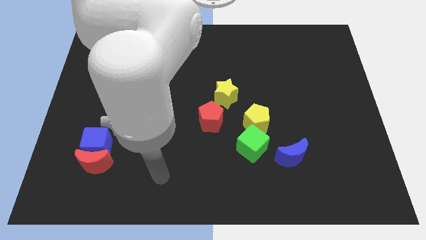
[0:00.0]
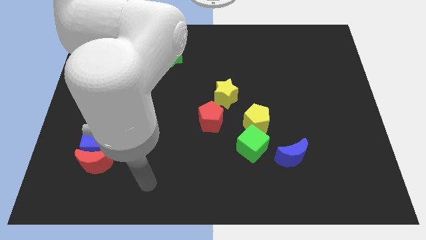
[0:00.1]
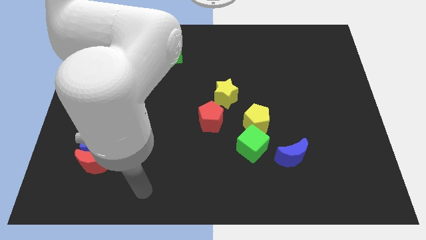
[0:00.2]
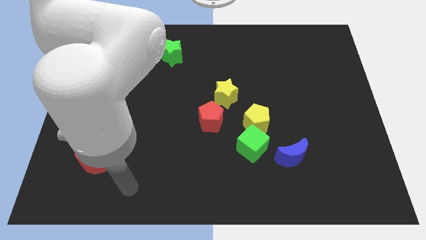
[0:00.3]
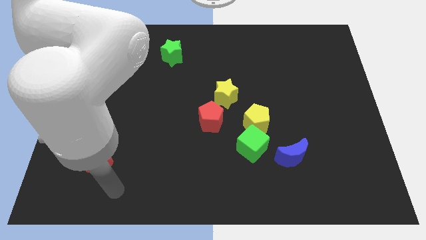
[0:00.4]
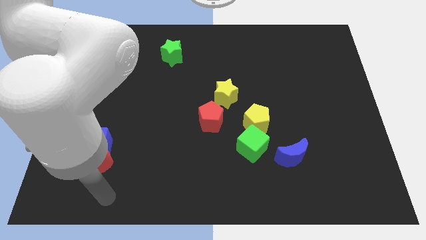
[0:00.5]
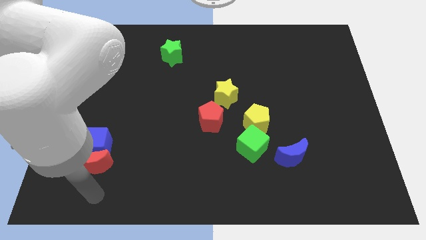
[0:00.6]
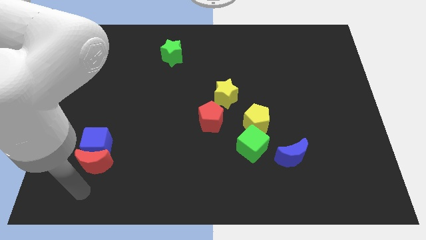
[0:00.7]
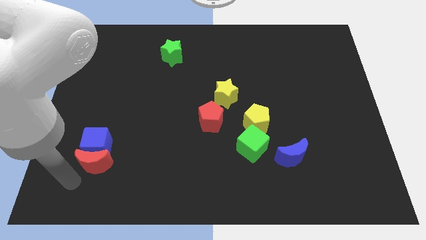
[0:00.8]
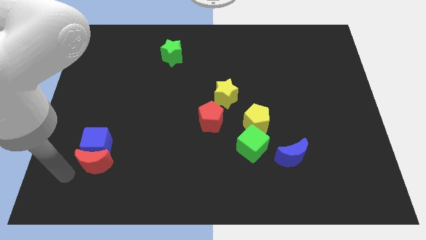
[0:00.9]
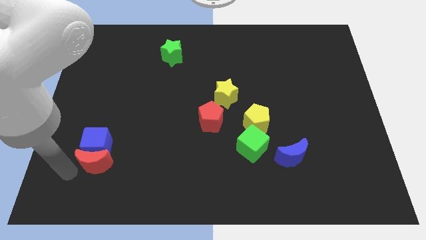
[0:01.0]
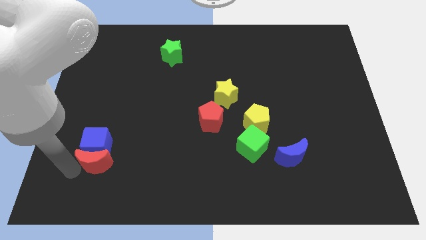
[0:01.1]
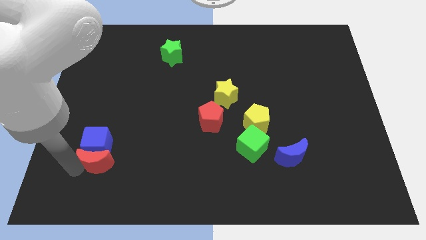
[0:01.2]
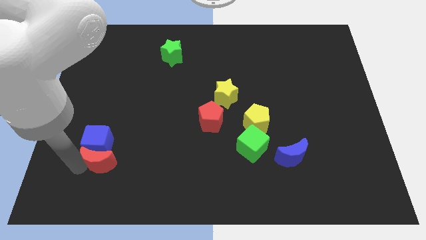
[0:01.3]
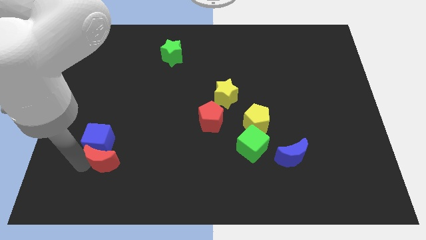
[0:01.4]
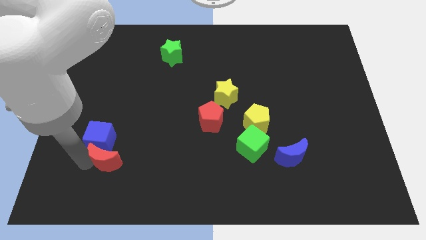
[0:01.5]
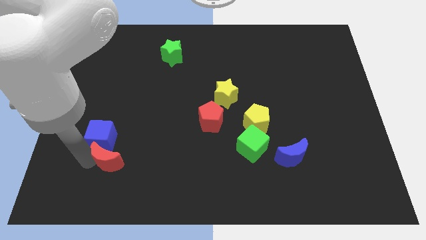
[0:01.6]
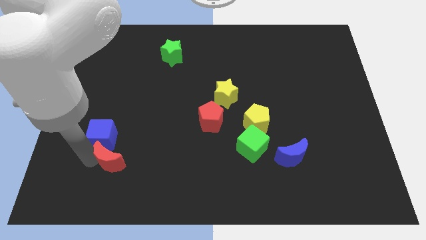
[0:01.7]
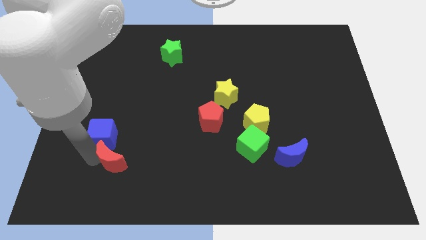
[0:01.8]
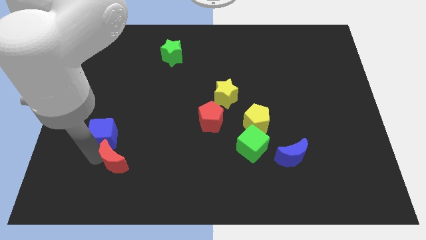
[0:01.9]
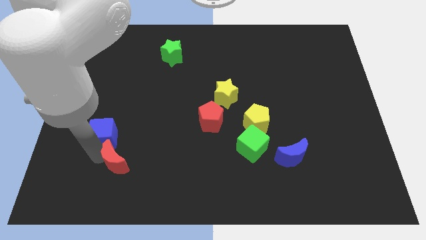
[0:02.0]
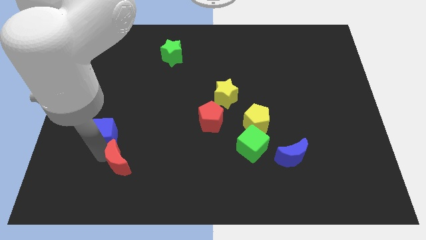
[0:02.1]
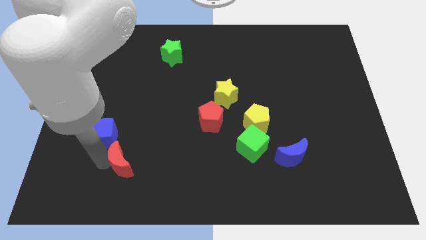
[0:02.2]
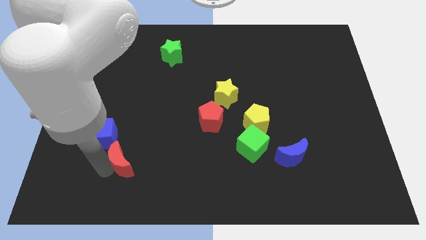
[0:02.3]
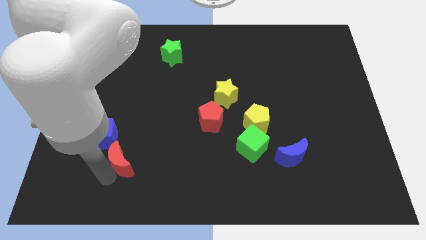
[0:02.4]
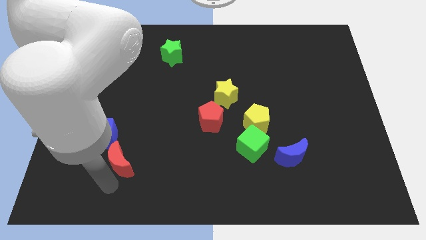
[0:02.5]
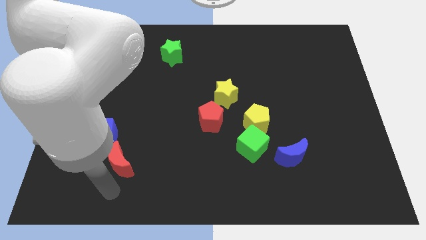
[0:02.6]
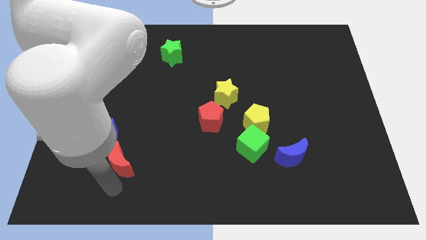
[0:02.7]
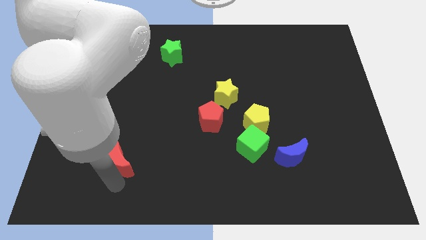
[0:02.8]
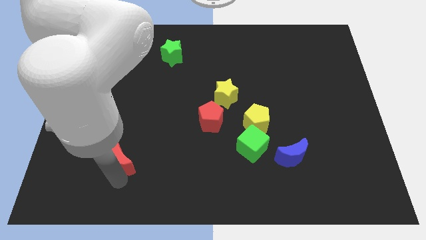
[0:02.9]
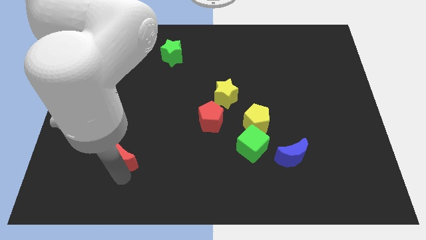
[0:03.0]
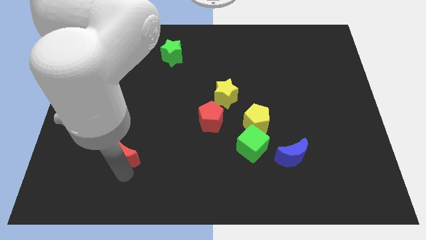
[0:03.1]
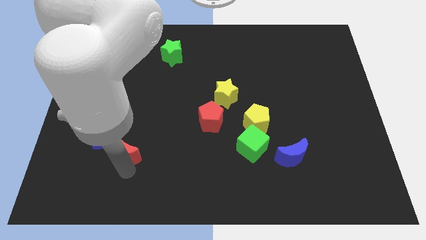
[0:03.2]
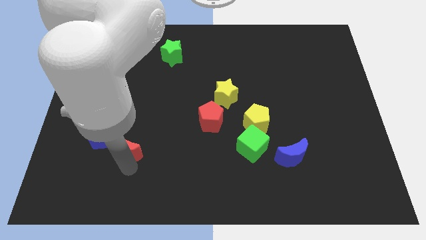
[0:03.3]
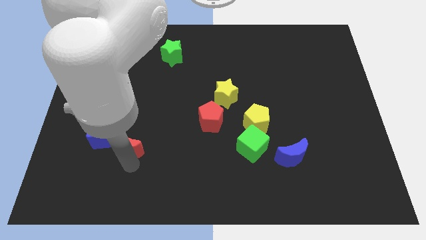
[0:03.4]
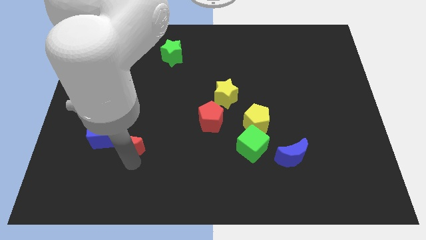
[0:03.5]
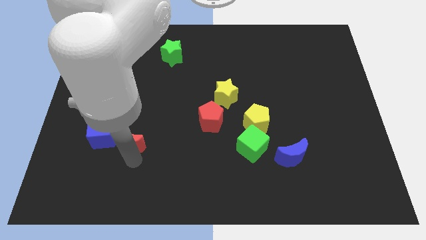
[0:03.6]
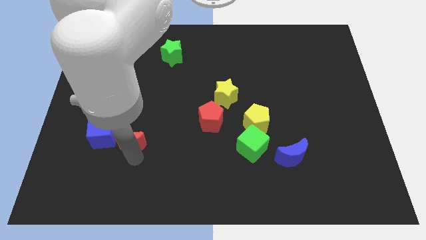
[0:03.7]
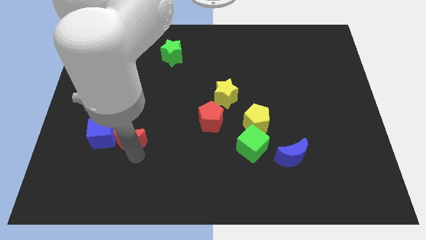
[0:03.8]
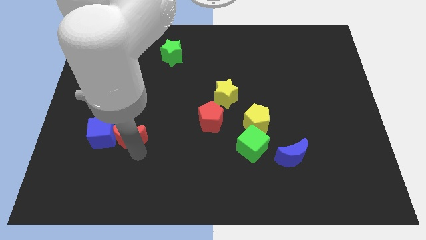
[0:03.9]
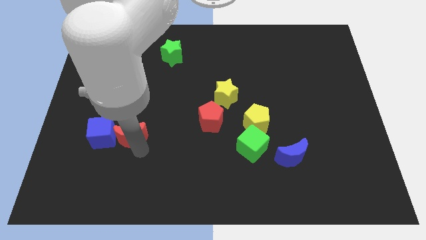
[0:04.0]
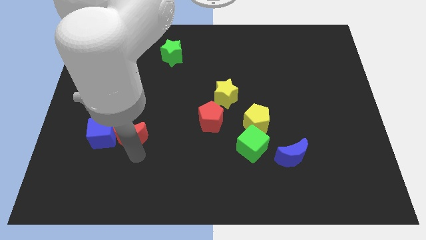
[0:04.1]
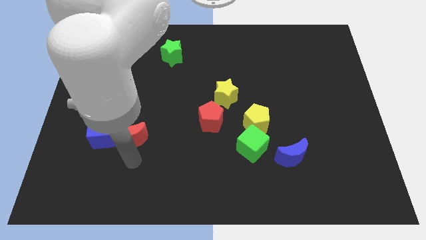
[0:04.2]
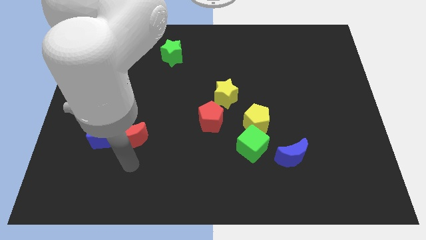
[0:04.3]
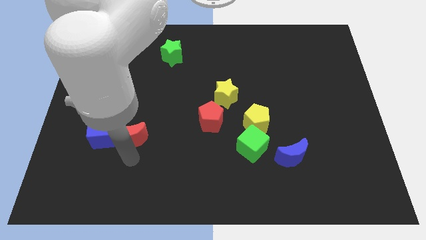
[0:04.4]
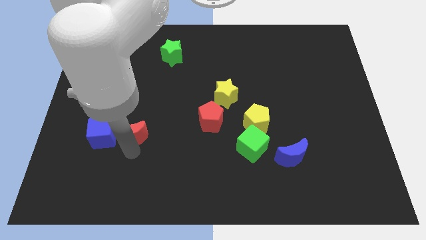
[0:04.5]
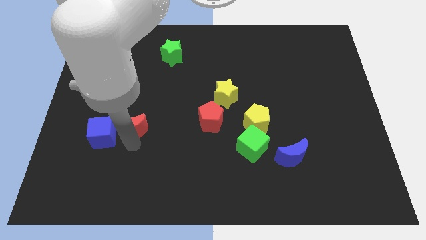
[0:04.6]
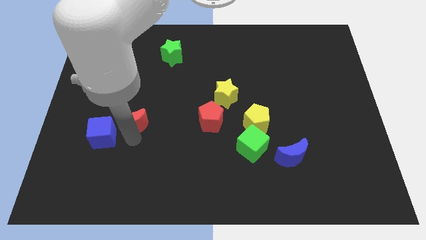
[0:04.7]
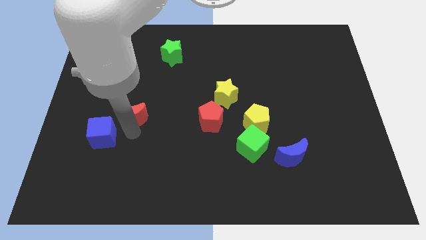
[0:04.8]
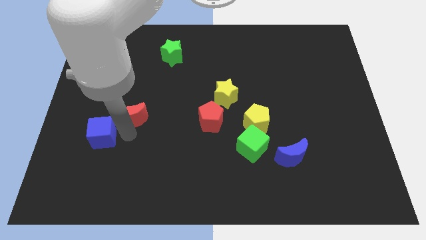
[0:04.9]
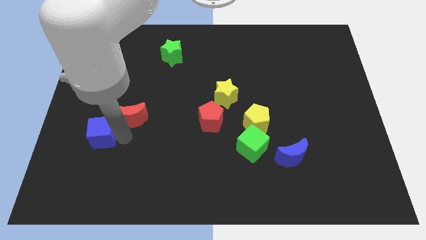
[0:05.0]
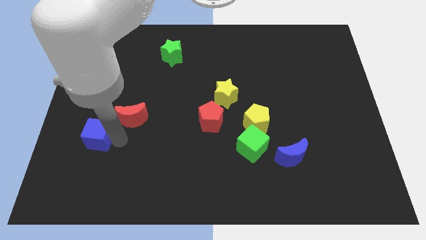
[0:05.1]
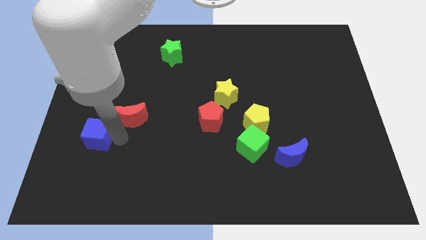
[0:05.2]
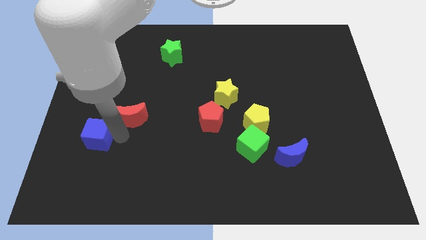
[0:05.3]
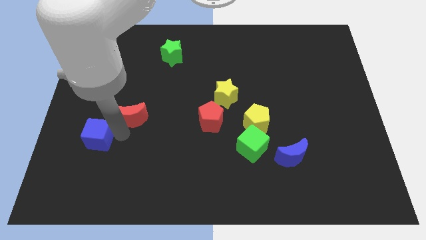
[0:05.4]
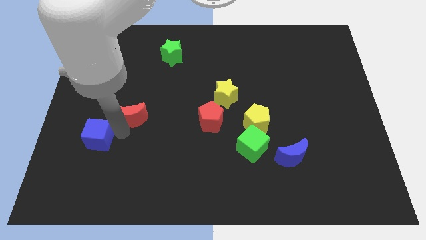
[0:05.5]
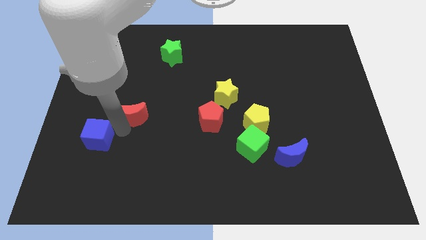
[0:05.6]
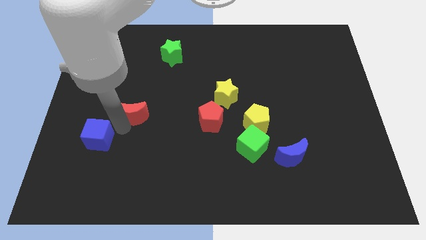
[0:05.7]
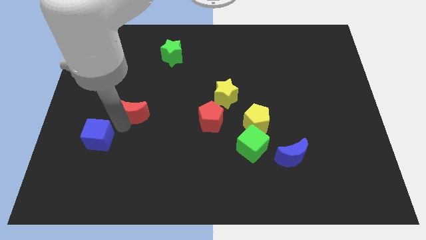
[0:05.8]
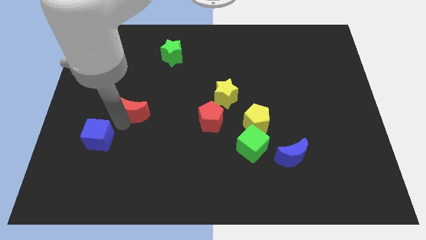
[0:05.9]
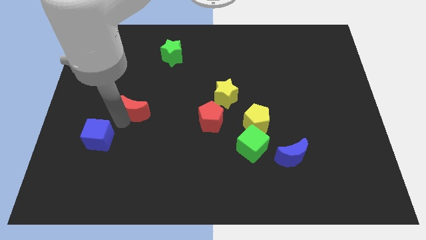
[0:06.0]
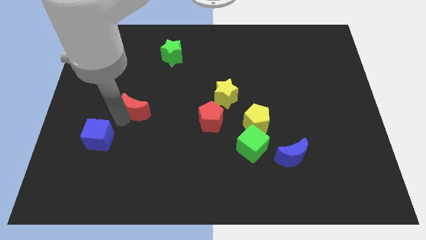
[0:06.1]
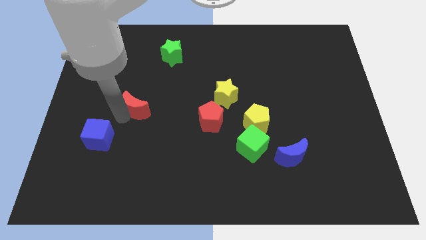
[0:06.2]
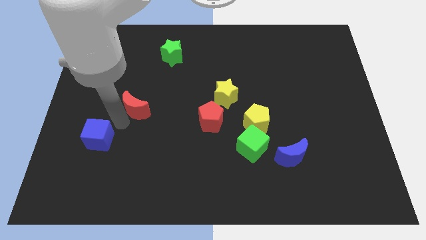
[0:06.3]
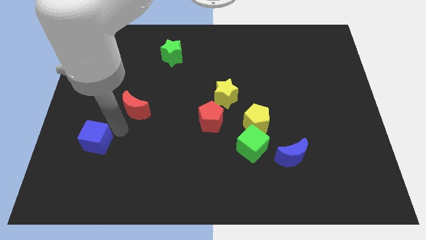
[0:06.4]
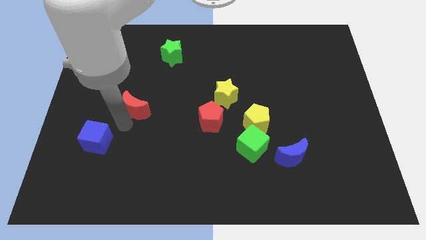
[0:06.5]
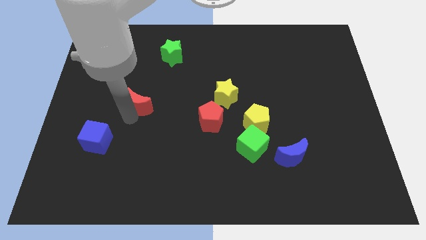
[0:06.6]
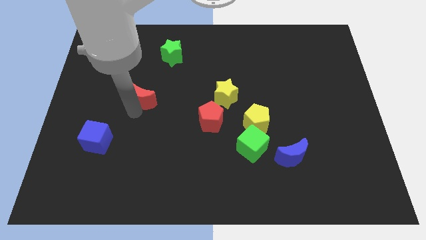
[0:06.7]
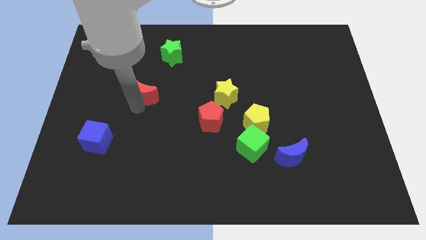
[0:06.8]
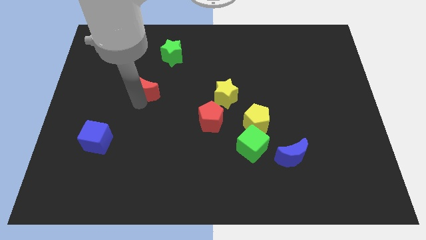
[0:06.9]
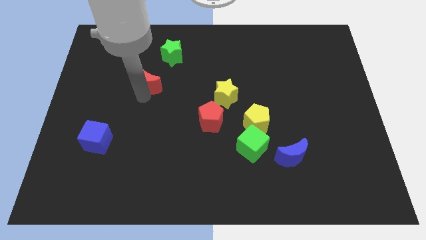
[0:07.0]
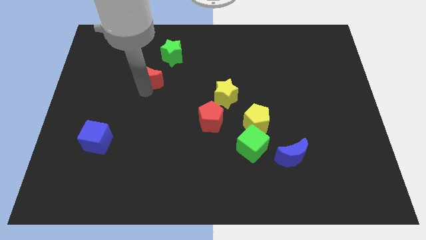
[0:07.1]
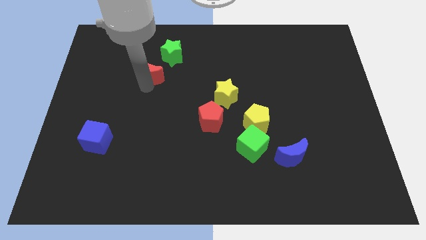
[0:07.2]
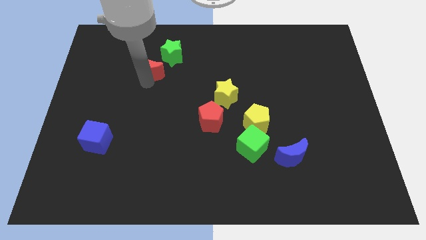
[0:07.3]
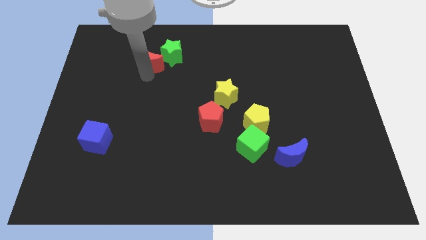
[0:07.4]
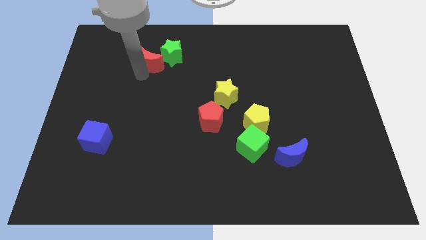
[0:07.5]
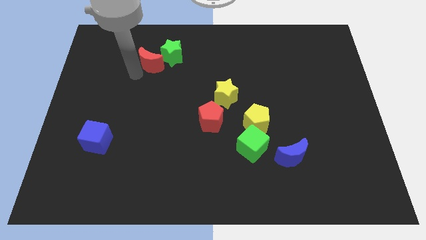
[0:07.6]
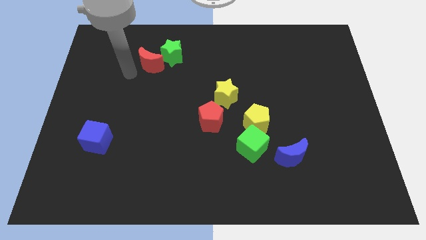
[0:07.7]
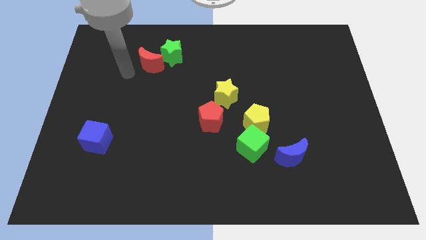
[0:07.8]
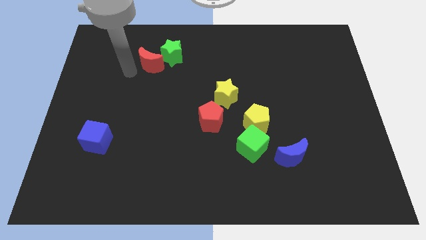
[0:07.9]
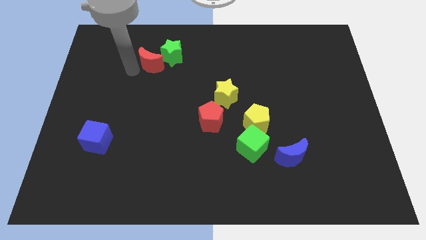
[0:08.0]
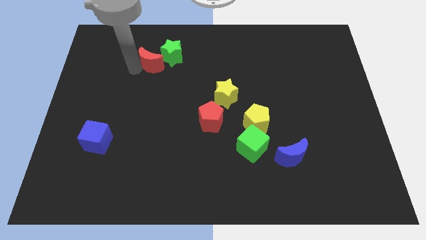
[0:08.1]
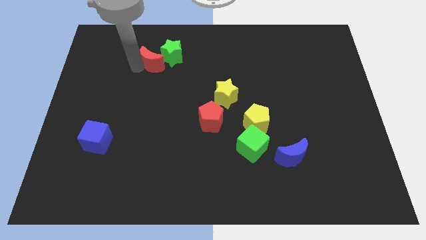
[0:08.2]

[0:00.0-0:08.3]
move the red moon to the green star
